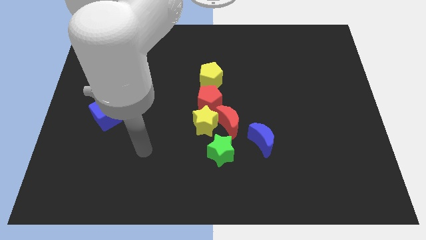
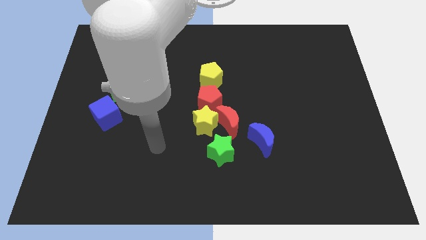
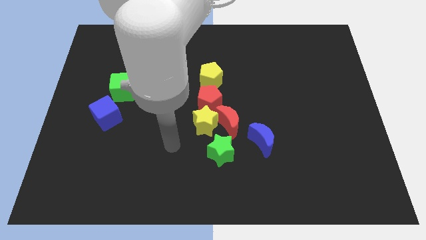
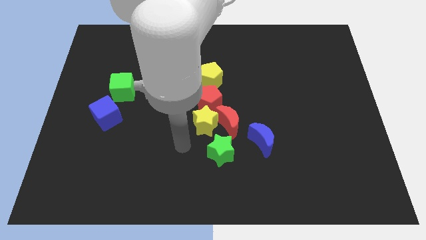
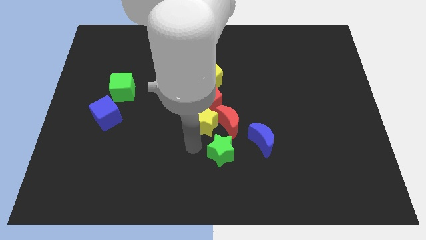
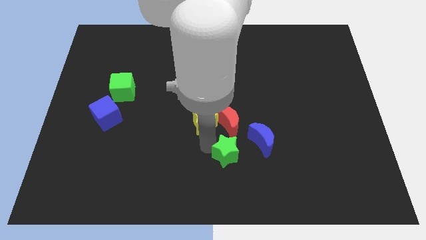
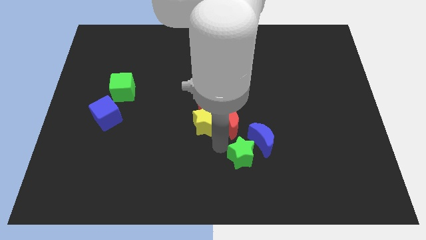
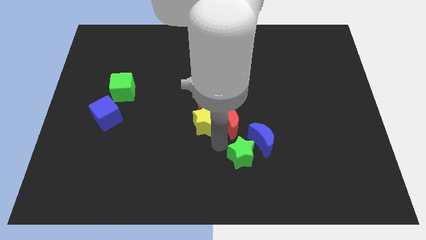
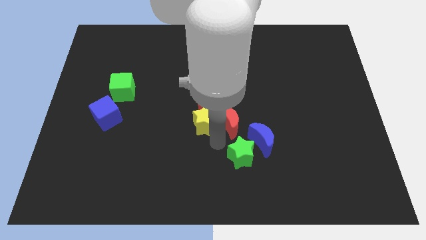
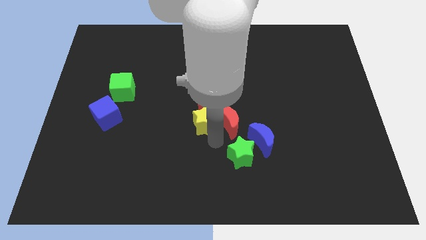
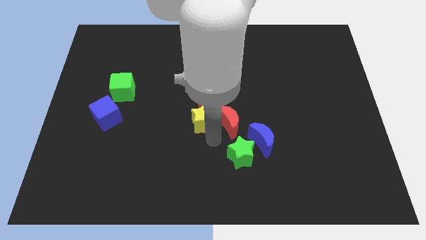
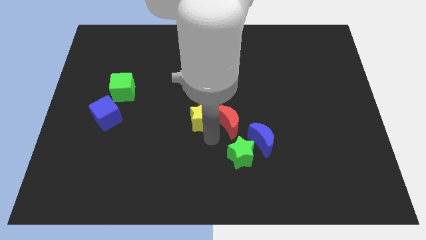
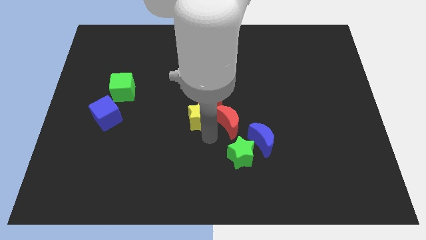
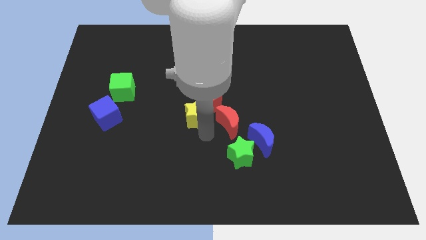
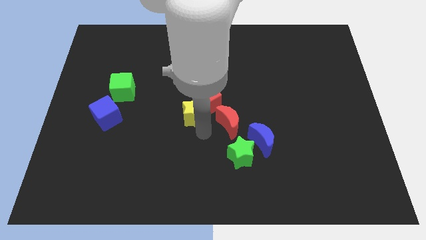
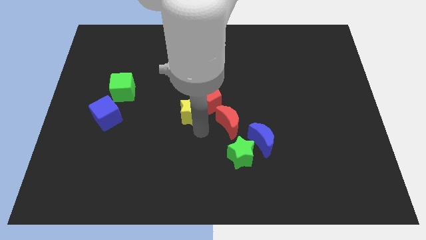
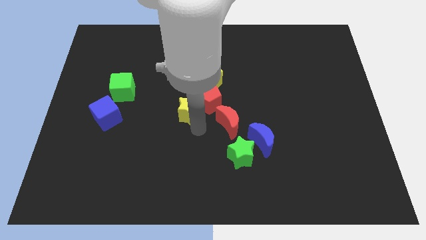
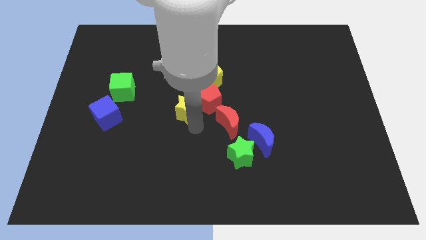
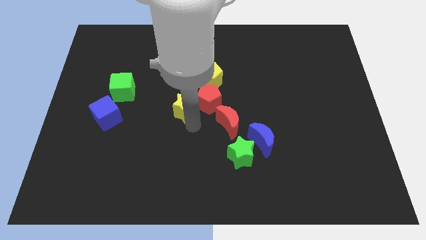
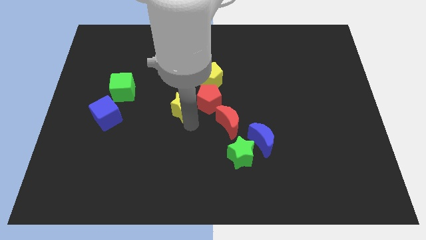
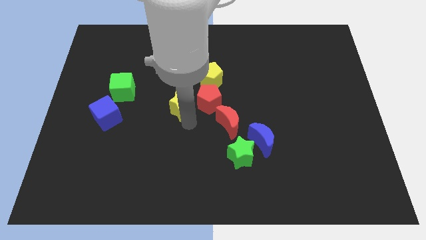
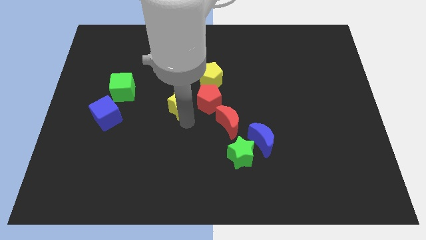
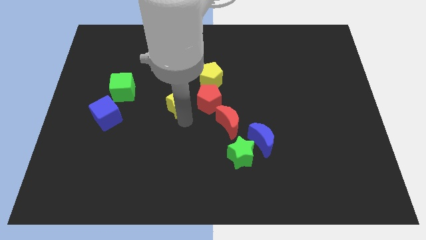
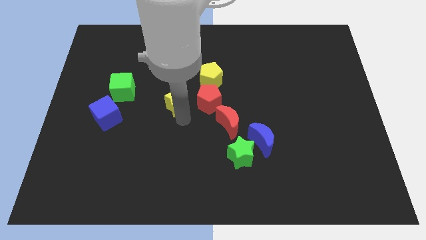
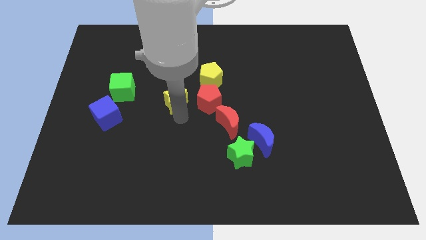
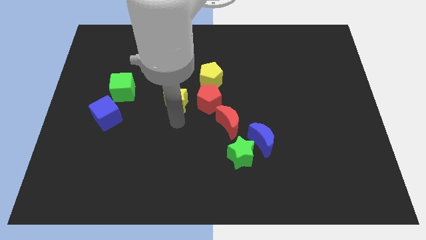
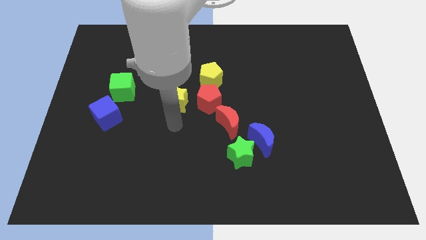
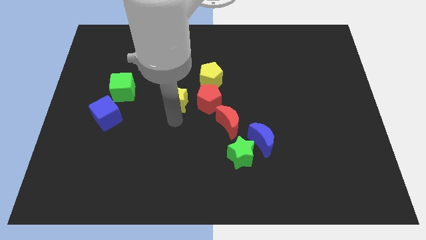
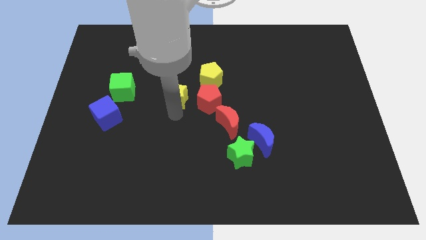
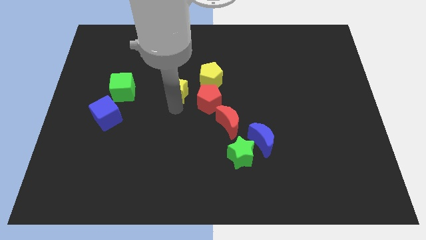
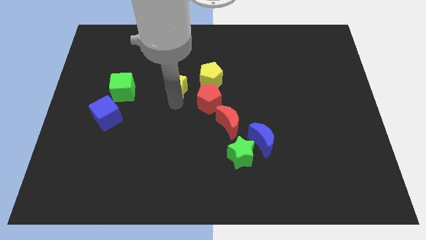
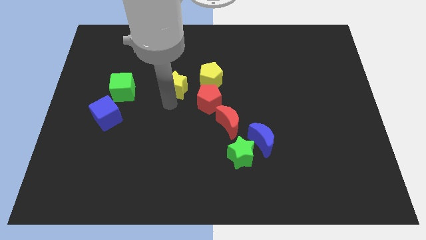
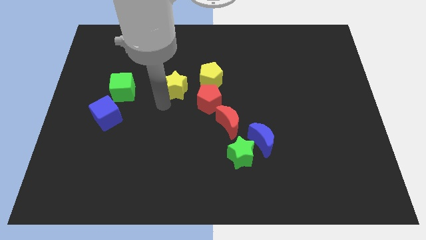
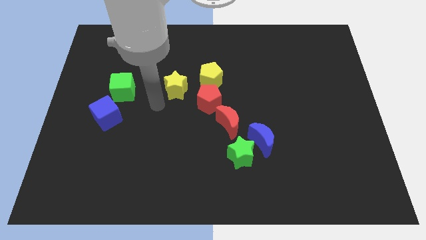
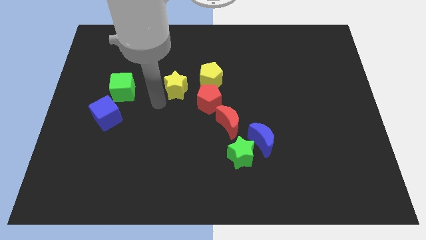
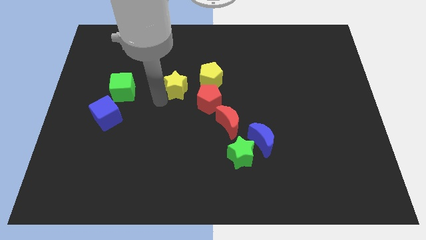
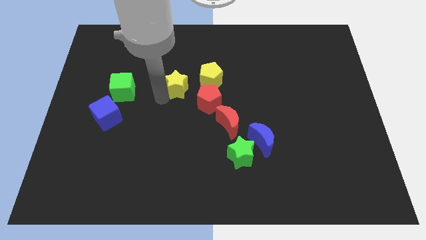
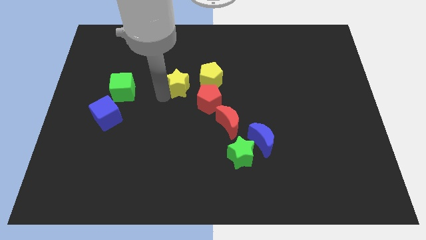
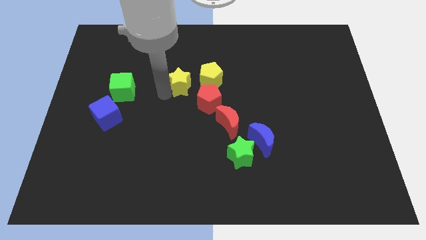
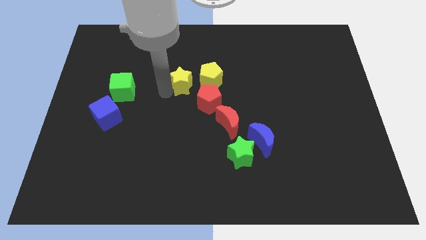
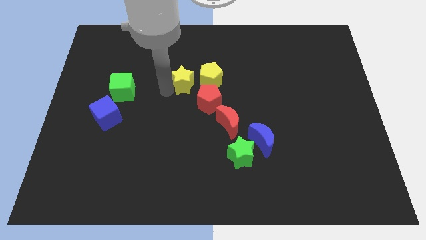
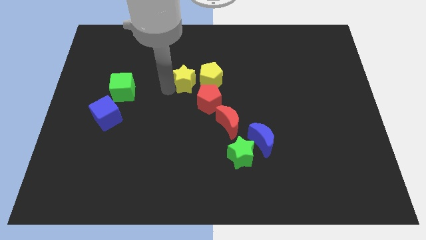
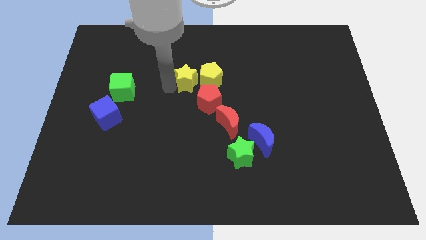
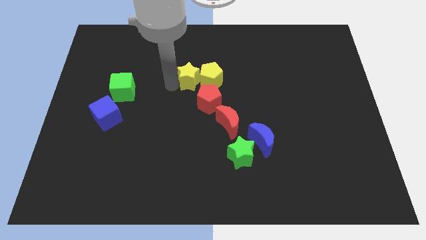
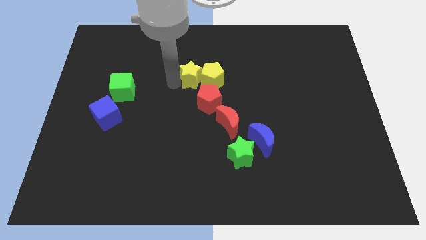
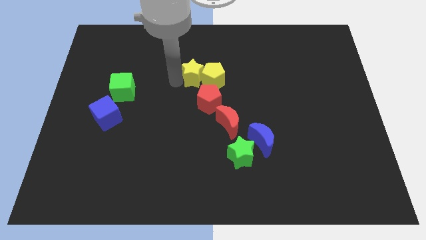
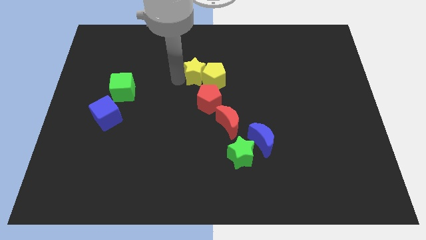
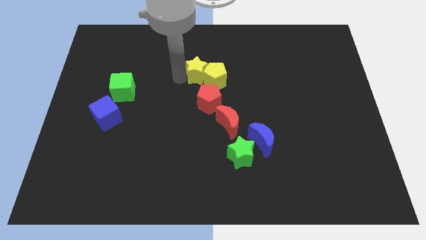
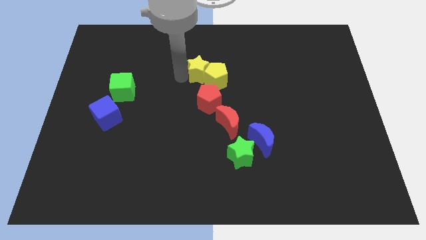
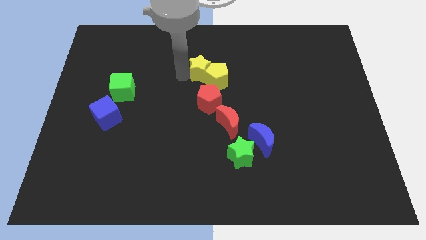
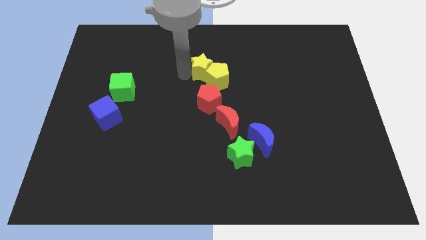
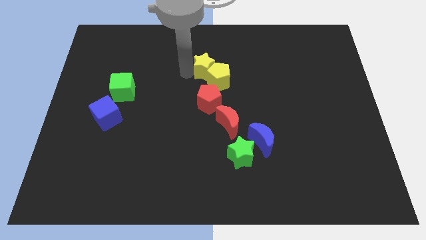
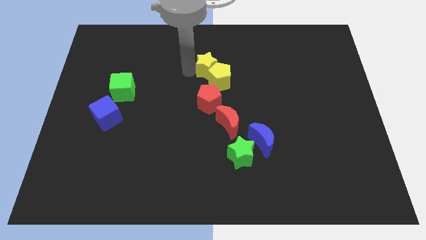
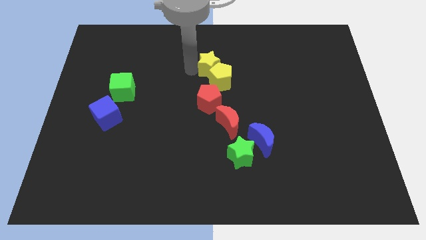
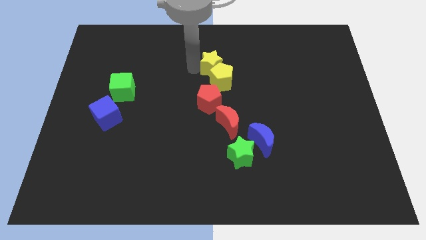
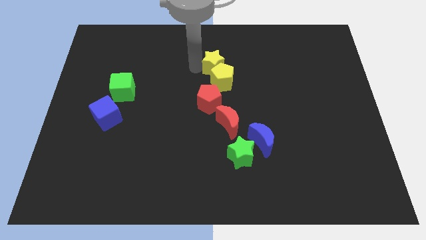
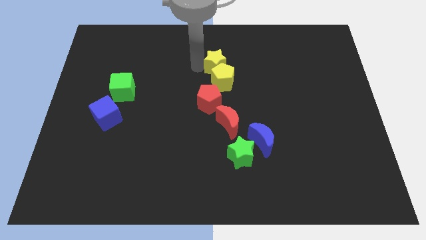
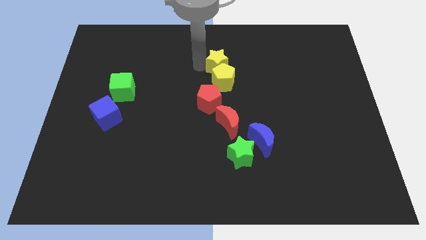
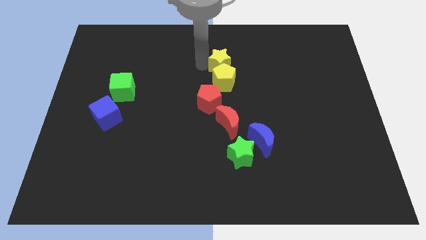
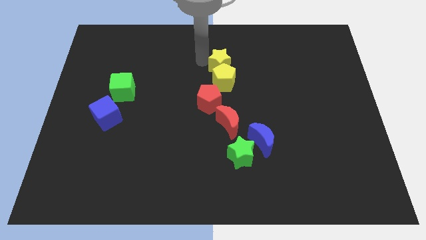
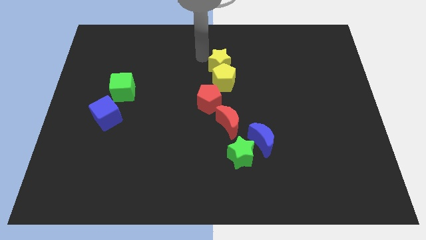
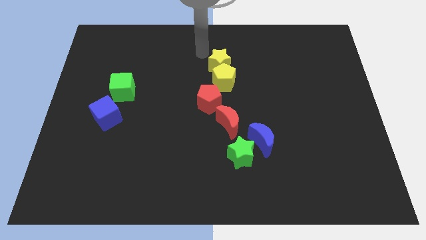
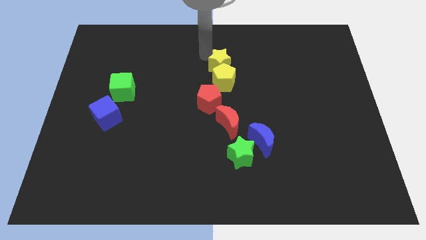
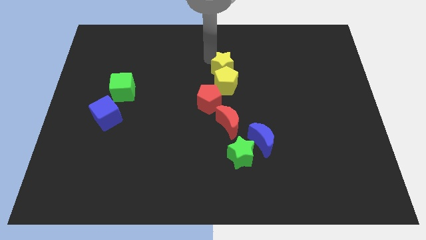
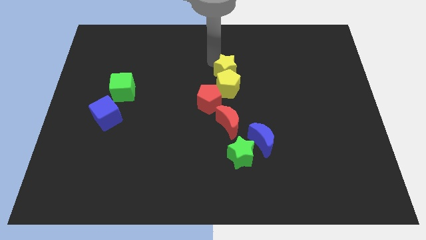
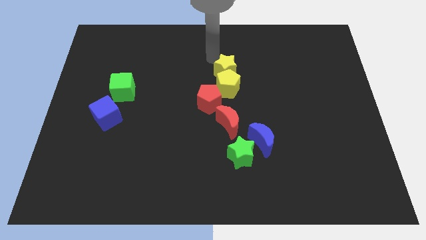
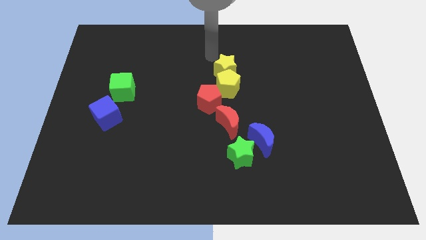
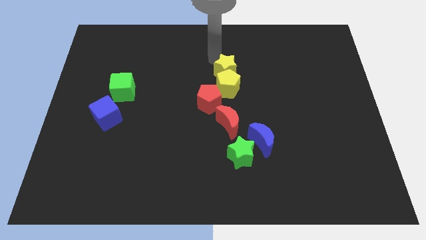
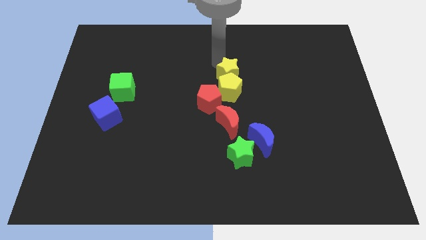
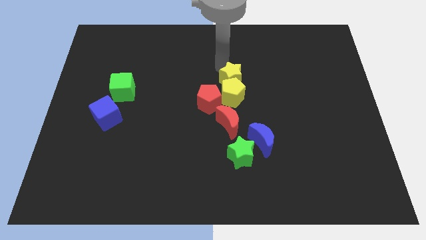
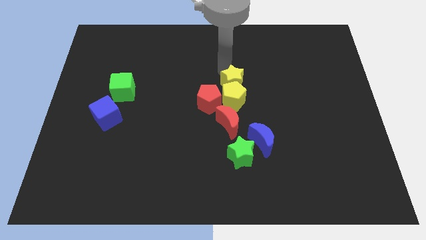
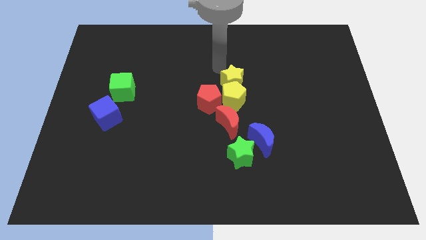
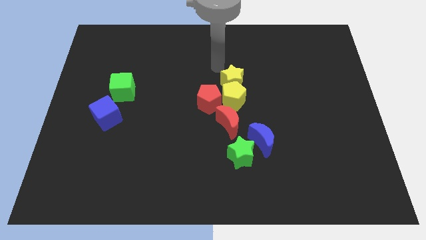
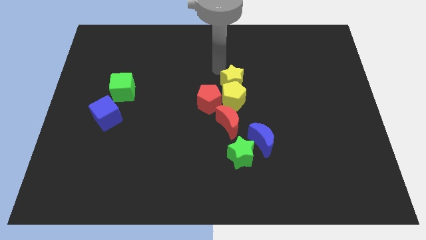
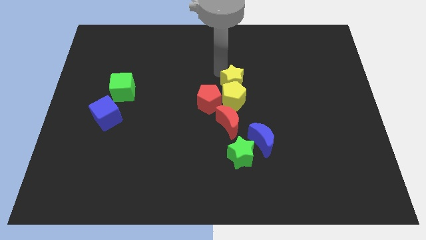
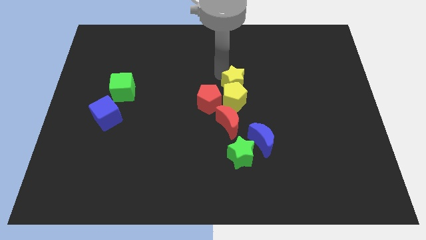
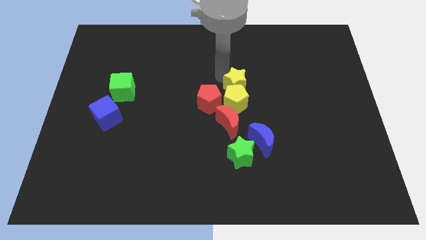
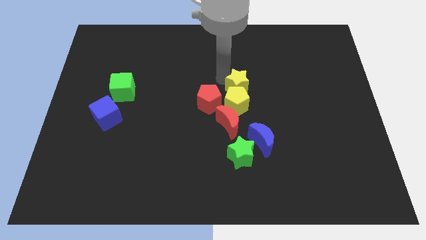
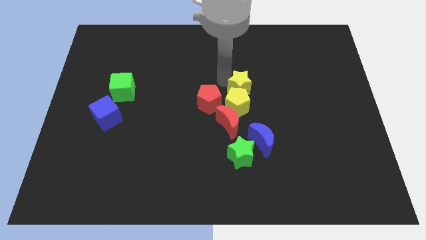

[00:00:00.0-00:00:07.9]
push the yellow star to the right side of the red pentagon

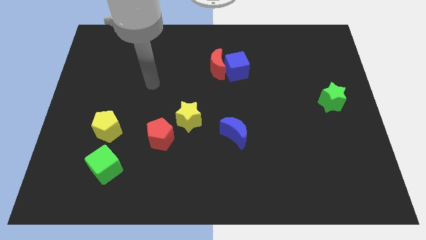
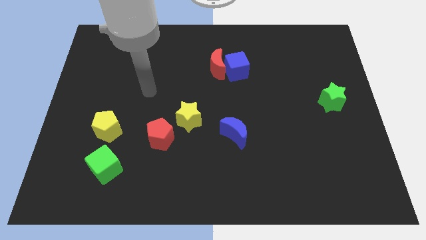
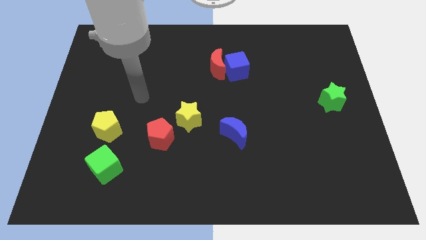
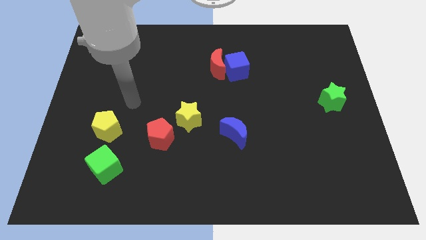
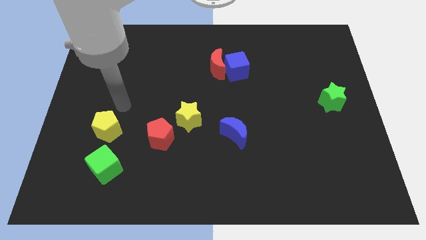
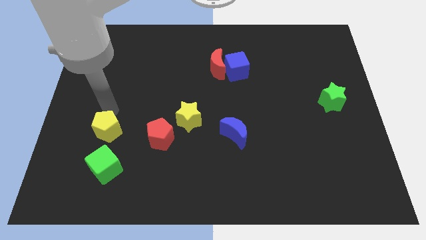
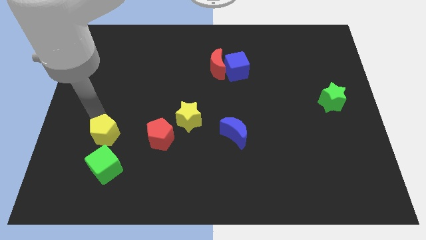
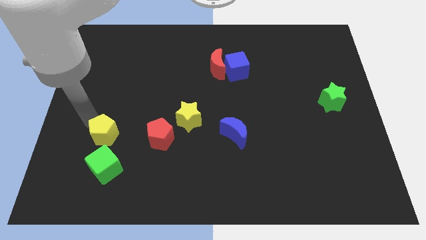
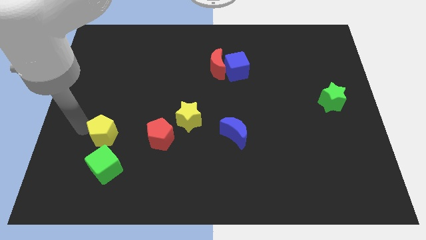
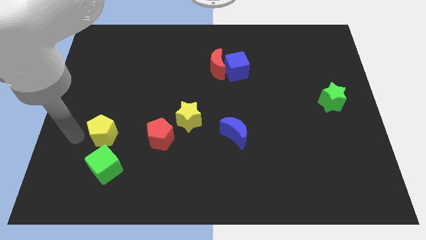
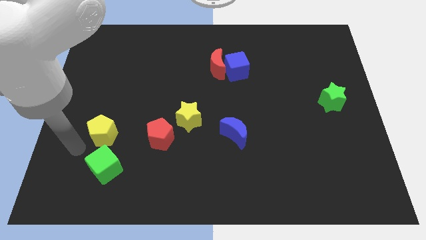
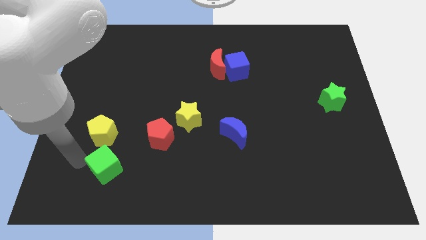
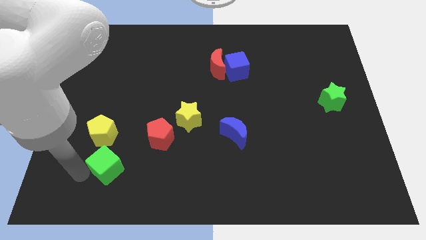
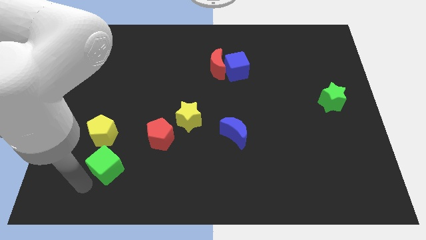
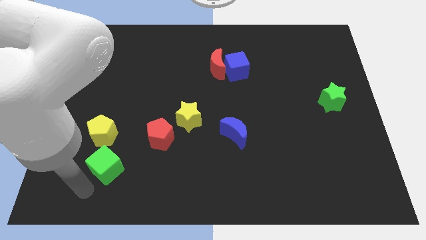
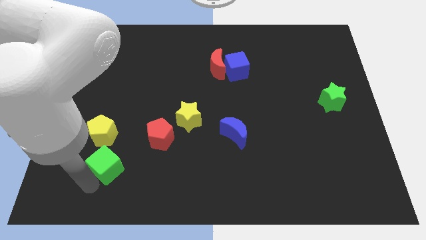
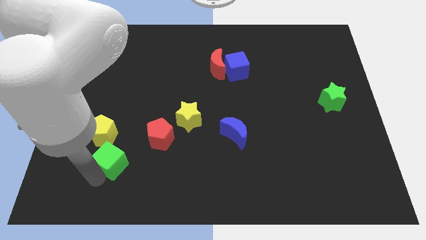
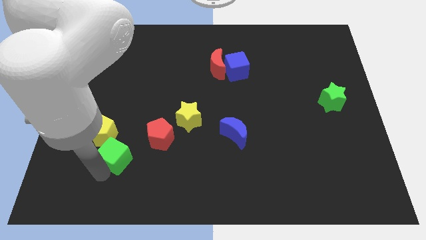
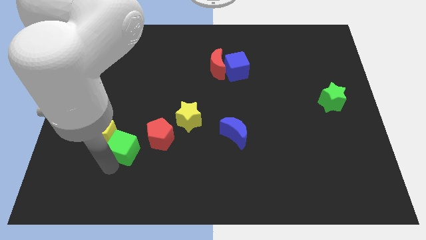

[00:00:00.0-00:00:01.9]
push the green cube just right of the yellow pentagon
